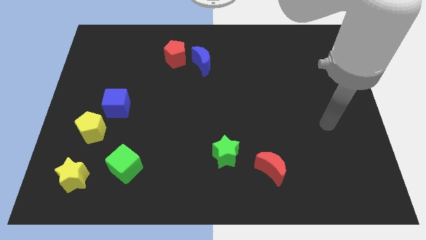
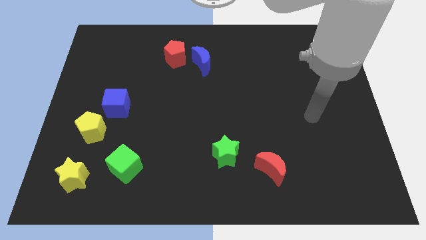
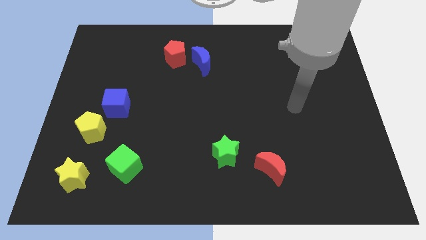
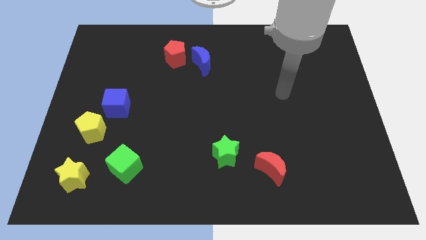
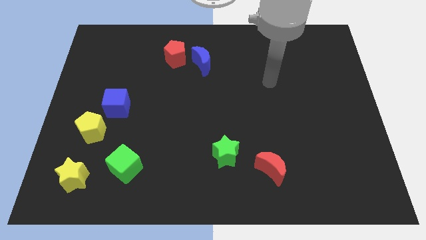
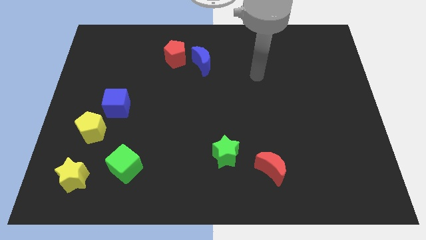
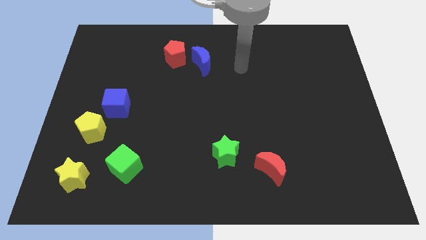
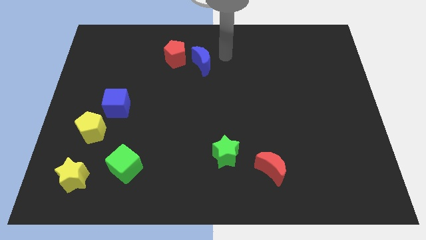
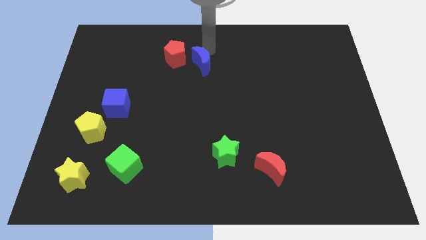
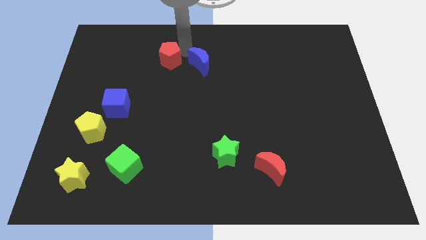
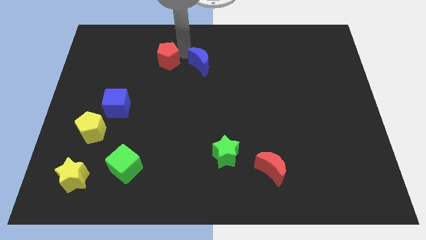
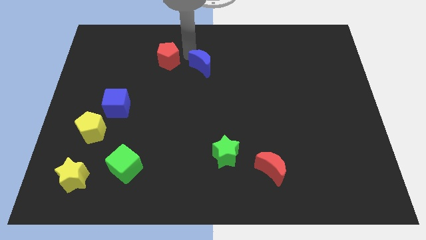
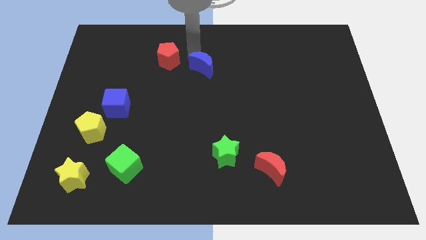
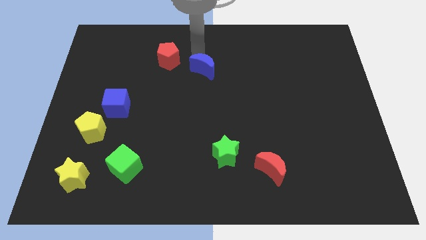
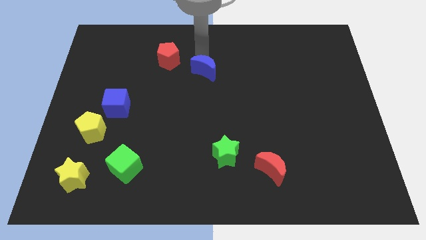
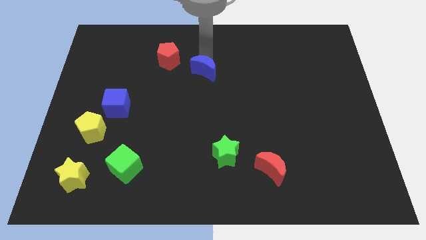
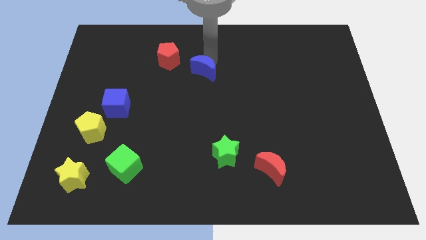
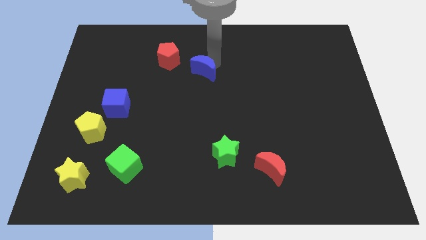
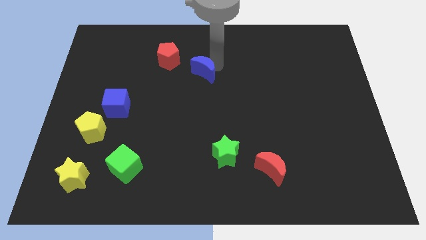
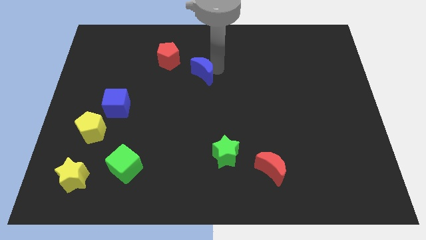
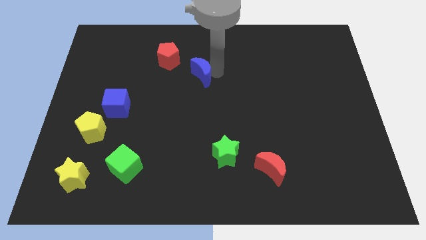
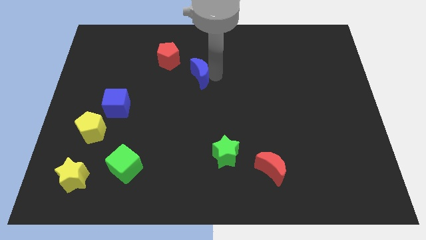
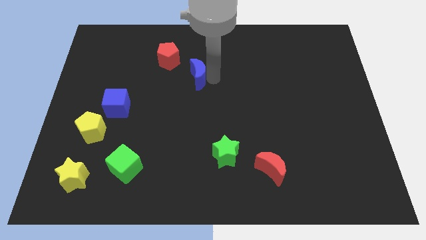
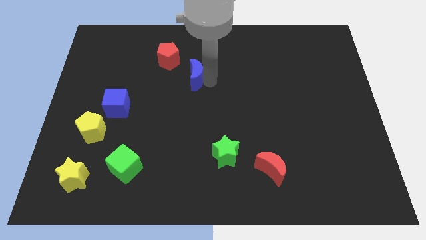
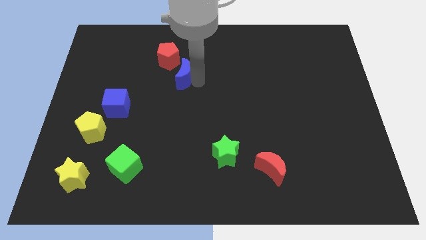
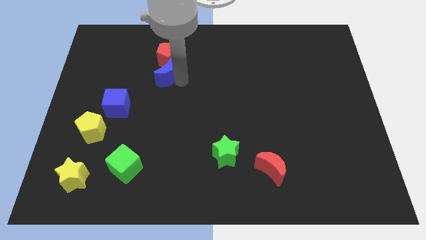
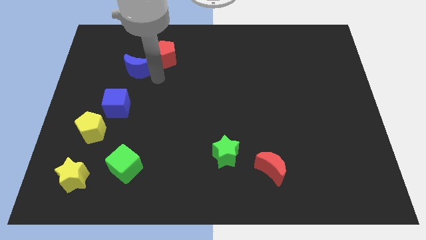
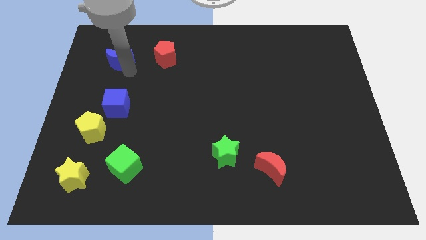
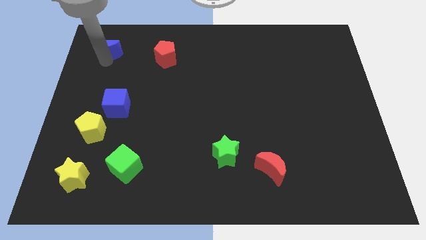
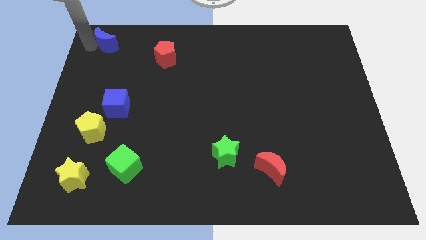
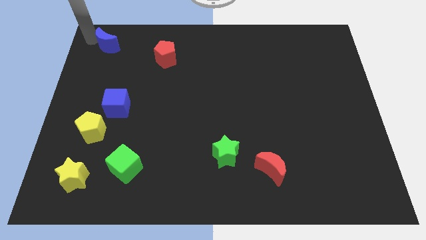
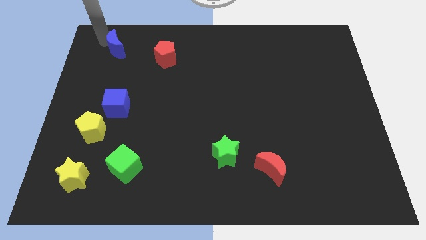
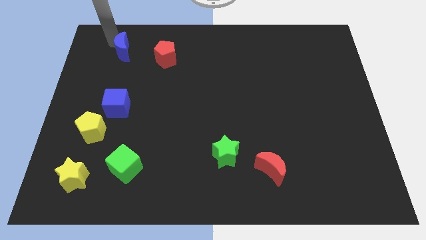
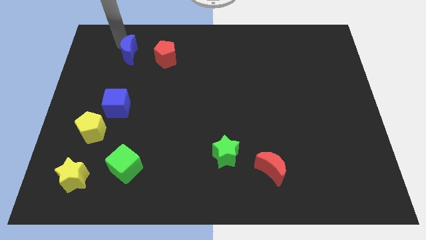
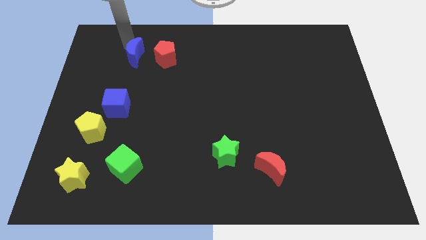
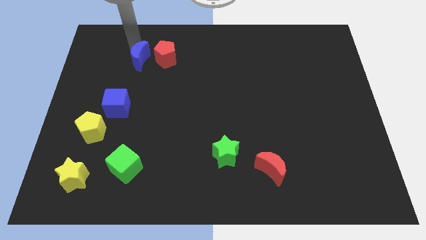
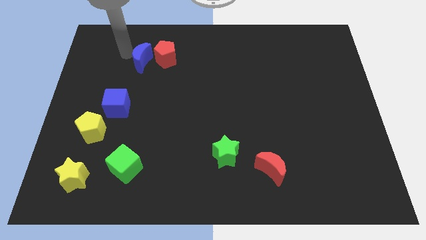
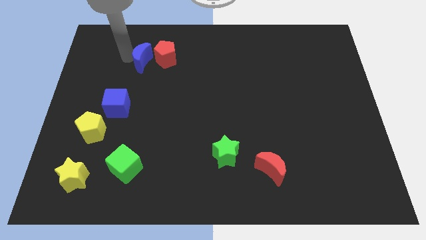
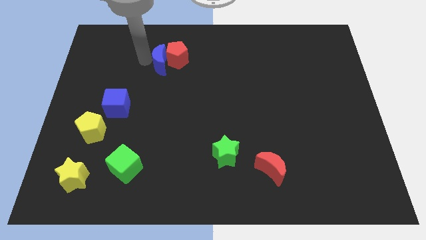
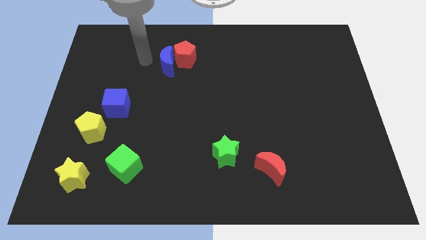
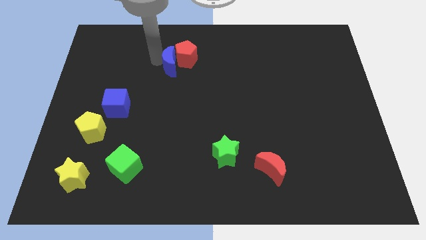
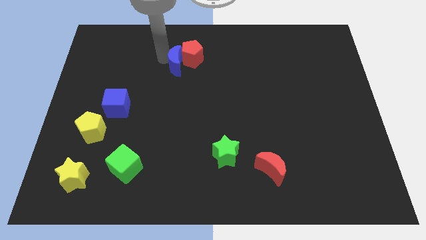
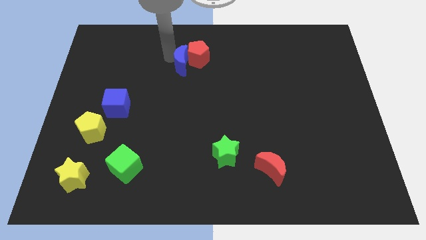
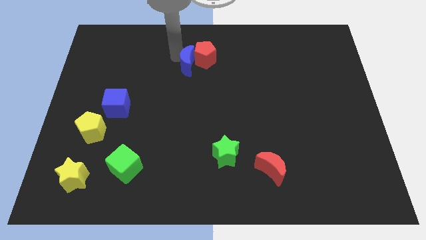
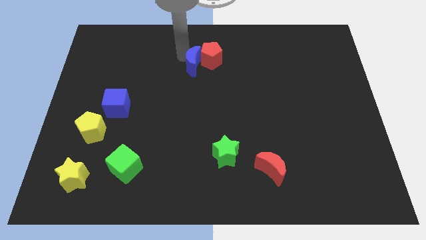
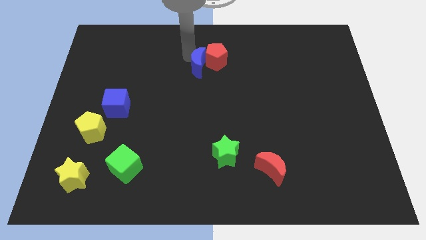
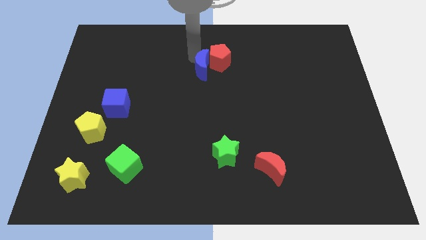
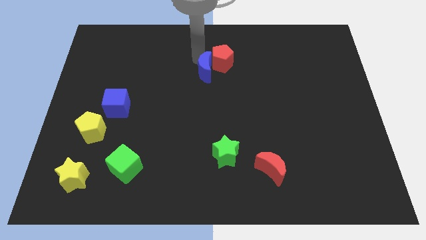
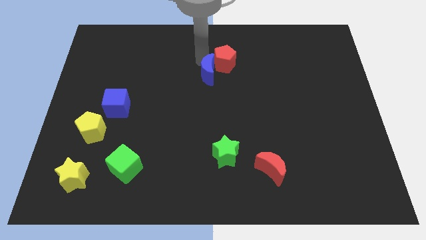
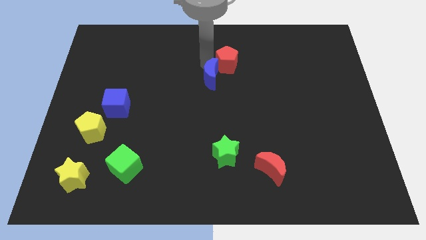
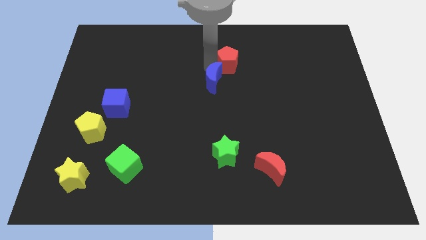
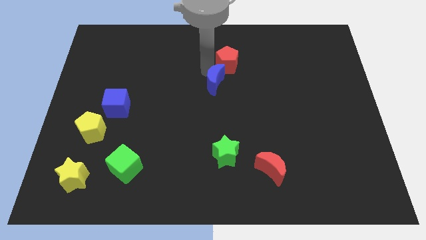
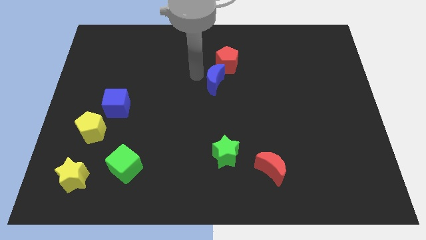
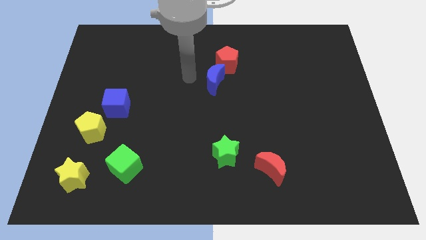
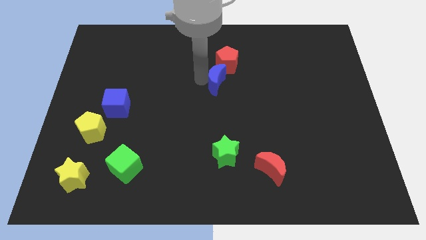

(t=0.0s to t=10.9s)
slide the blue moon a bit down and right

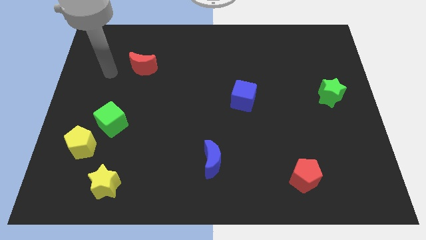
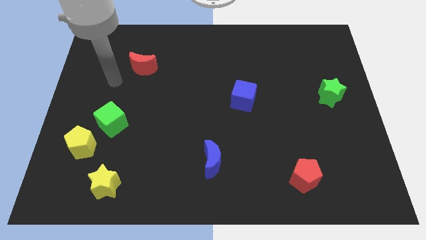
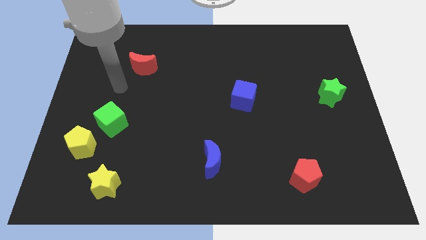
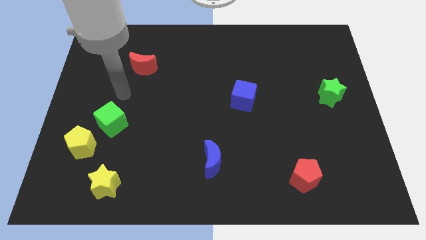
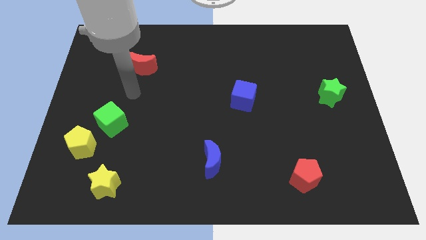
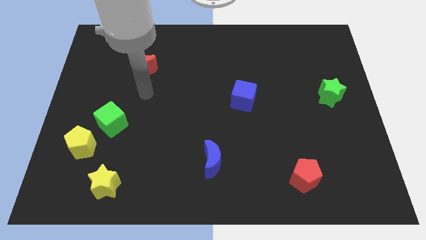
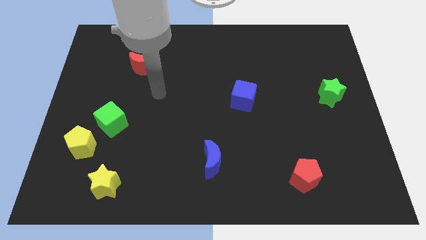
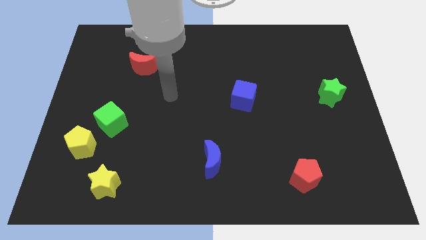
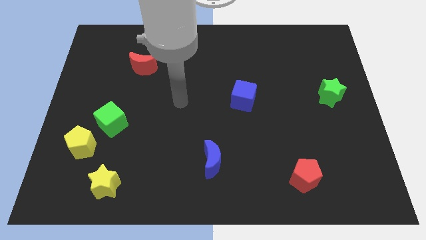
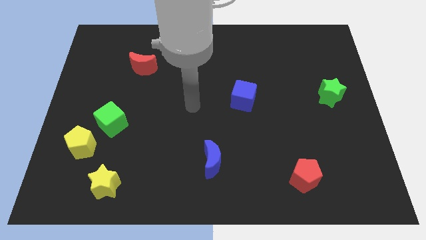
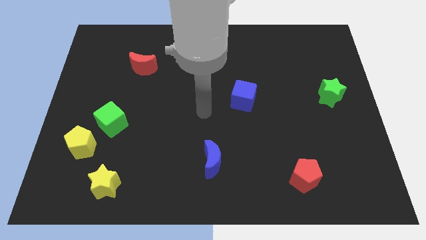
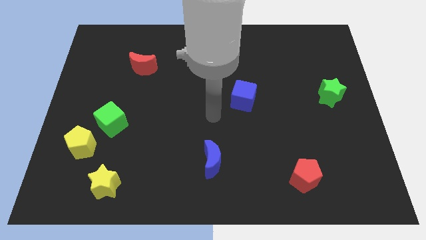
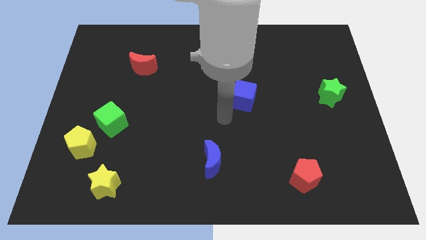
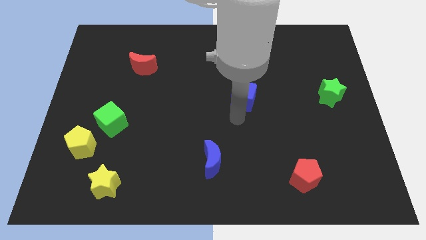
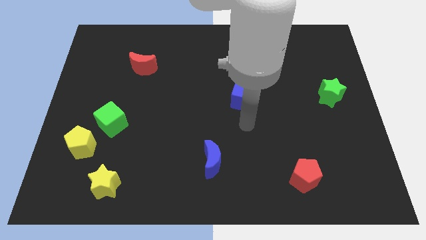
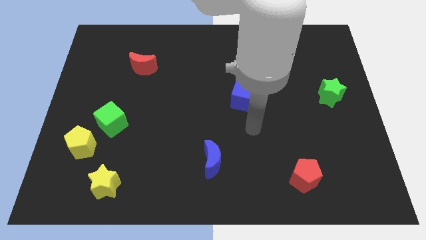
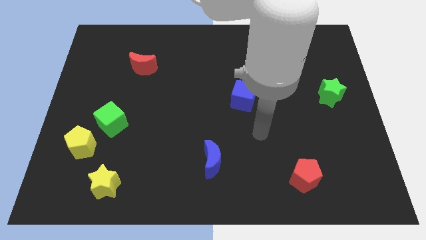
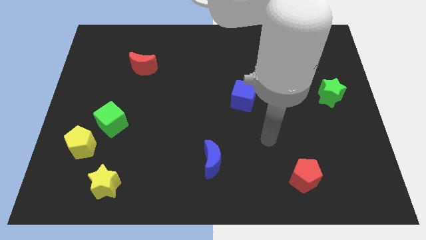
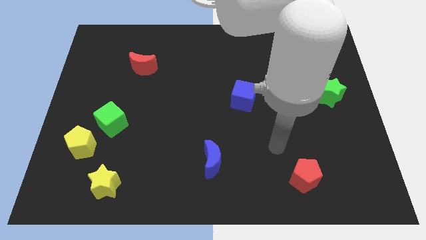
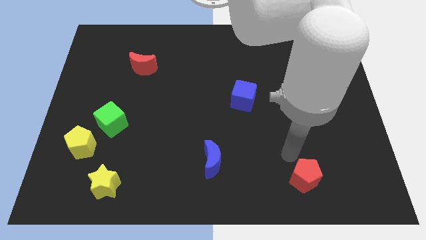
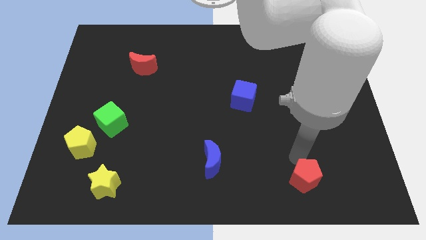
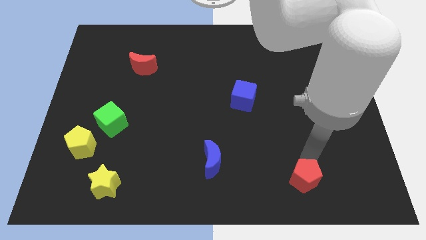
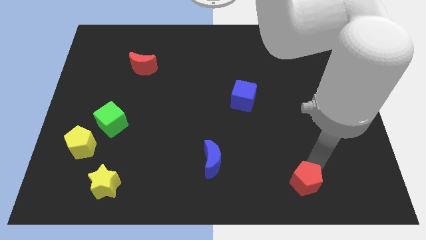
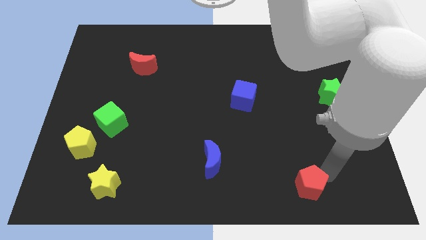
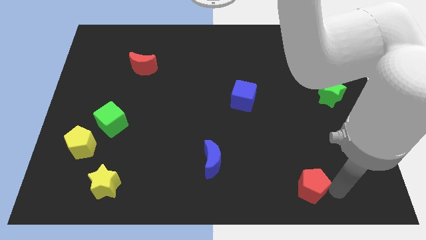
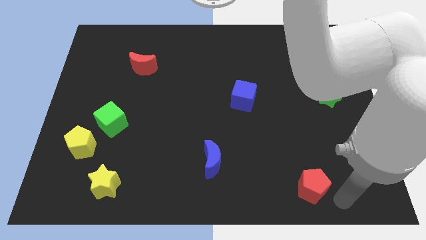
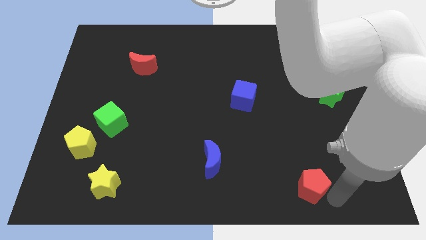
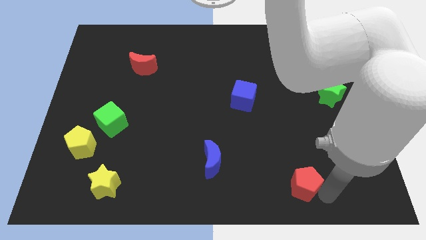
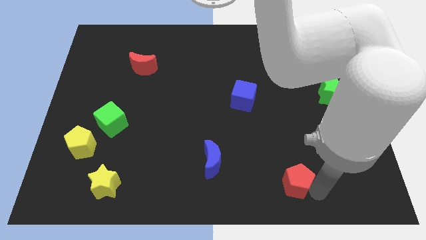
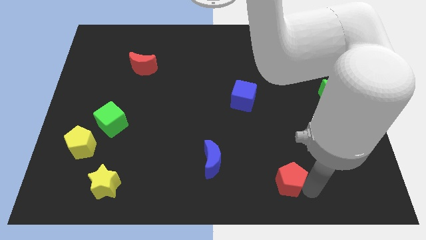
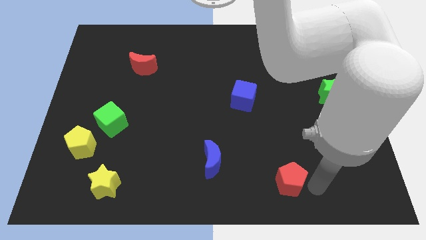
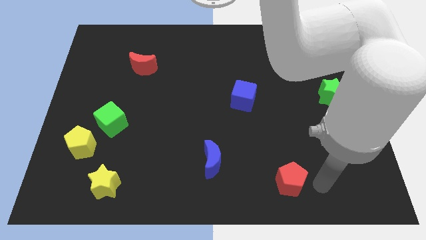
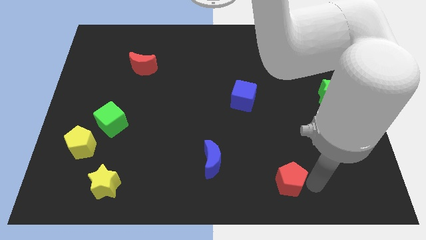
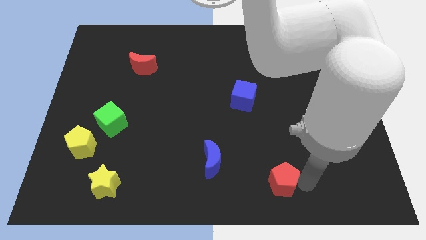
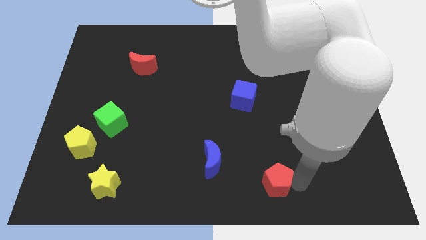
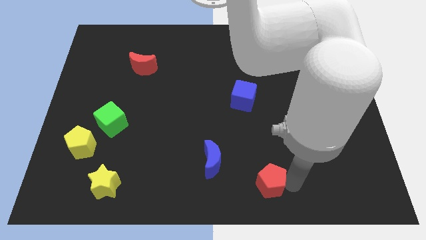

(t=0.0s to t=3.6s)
slightly move the red pentagon left
